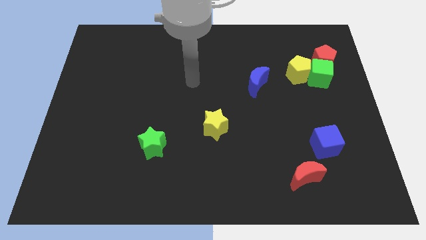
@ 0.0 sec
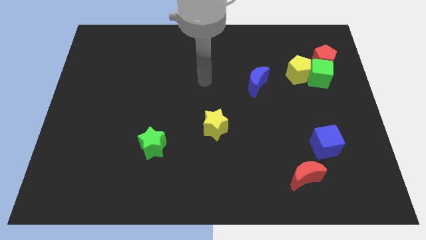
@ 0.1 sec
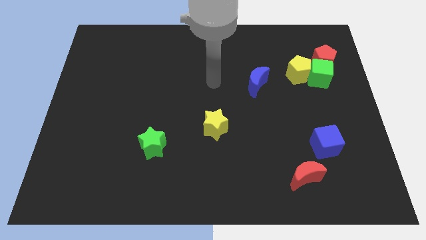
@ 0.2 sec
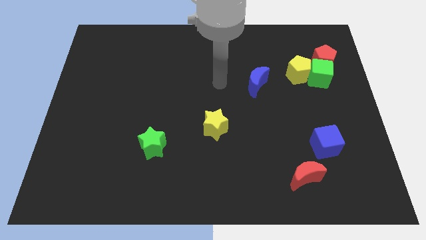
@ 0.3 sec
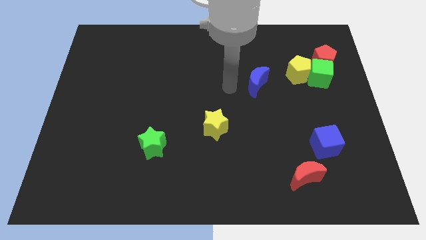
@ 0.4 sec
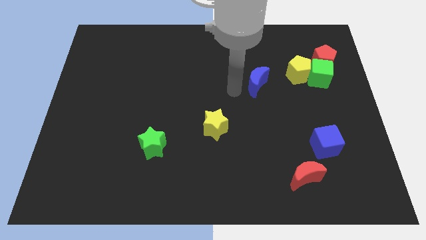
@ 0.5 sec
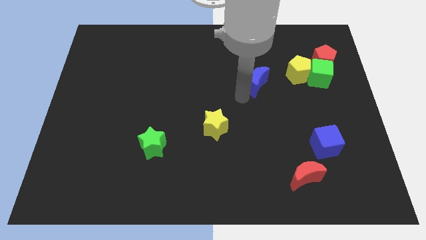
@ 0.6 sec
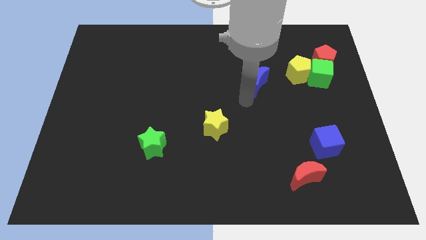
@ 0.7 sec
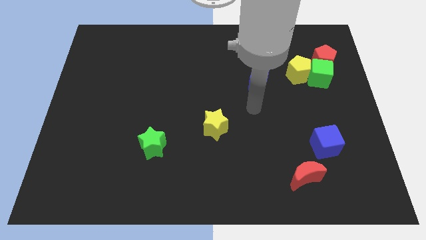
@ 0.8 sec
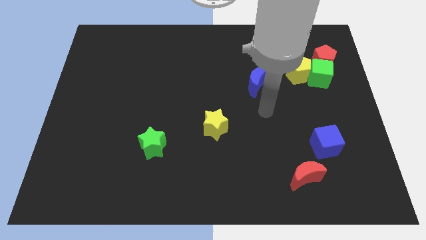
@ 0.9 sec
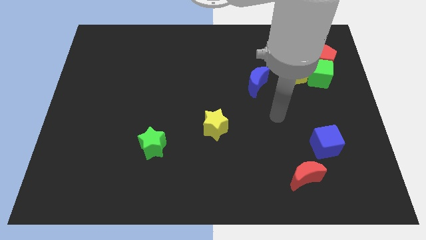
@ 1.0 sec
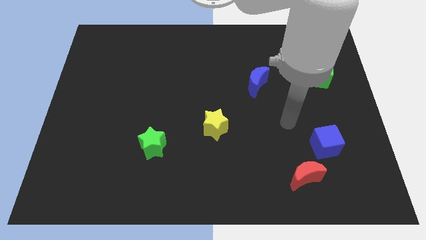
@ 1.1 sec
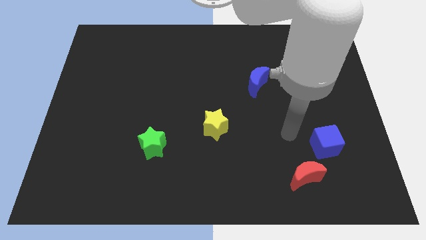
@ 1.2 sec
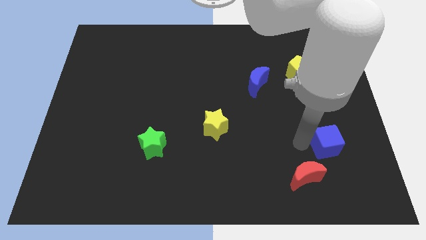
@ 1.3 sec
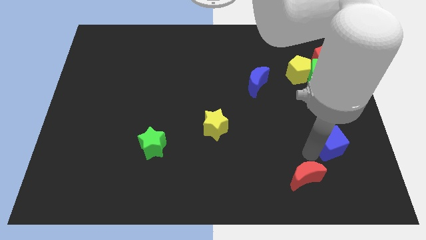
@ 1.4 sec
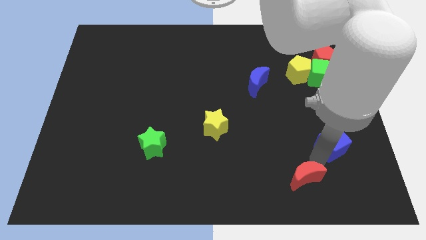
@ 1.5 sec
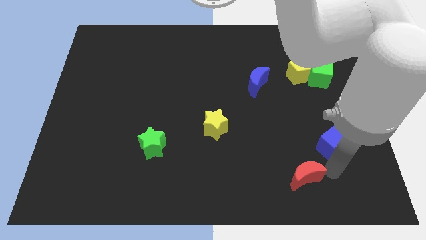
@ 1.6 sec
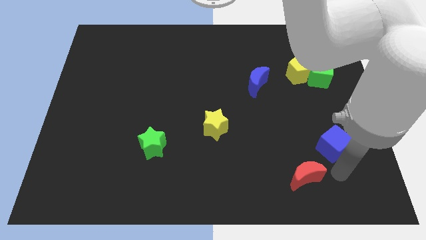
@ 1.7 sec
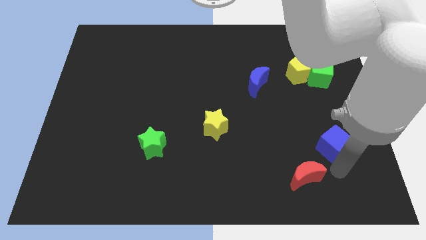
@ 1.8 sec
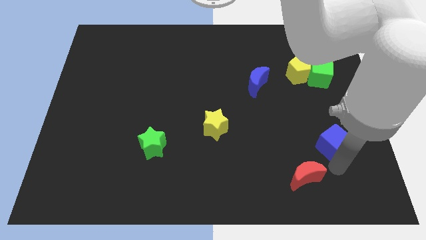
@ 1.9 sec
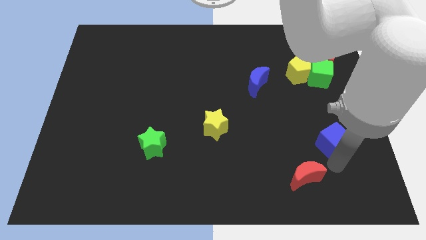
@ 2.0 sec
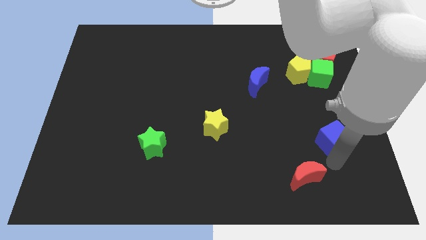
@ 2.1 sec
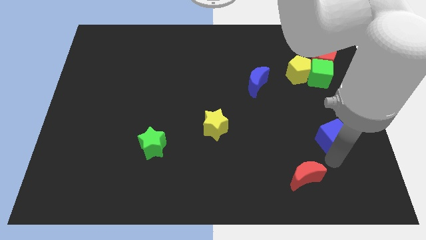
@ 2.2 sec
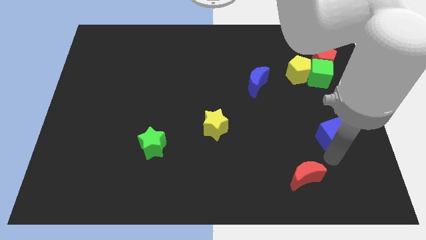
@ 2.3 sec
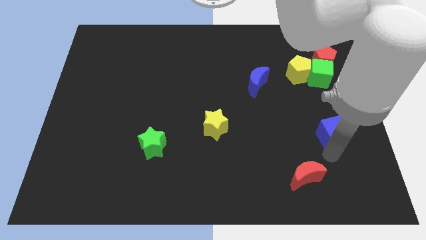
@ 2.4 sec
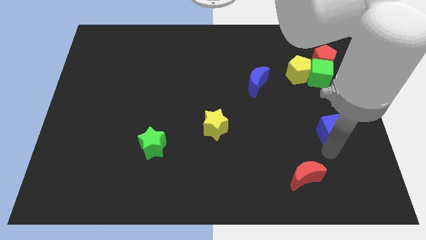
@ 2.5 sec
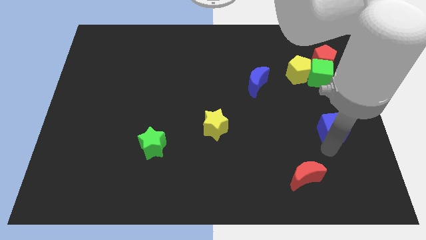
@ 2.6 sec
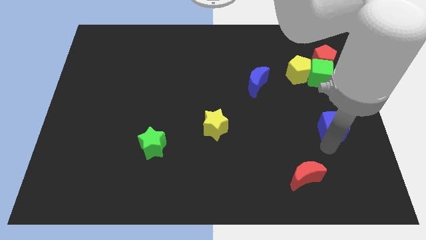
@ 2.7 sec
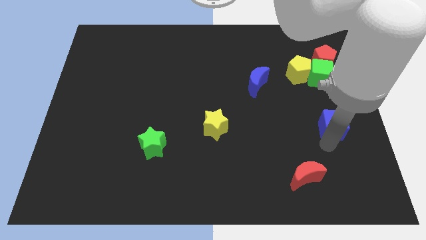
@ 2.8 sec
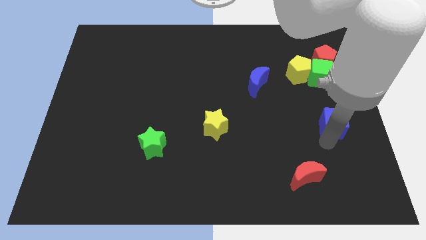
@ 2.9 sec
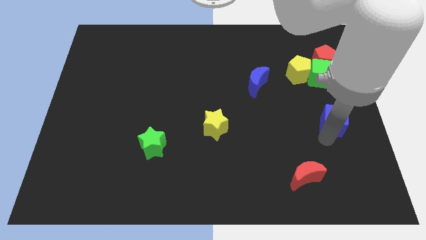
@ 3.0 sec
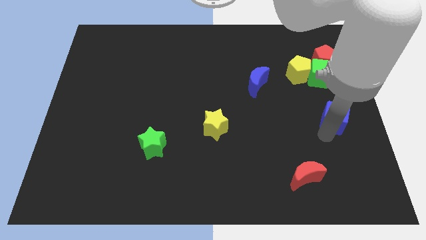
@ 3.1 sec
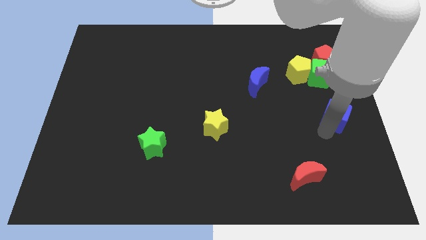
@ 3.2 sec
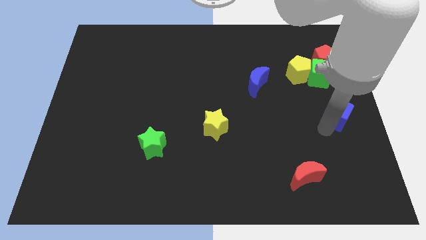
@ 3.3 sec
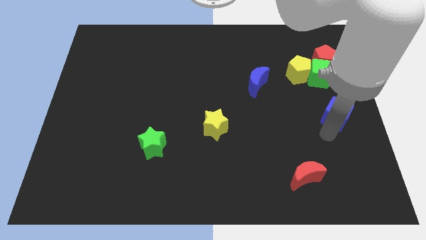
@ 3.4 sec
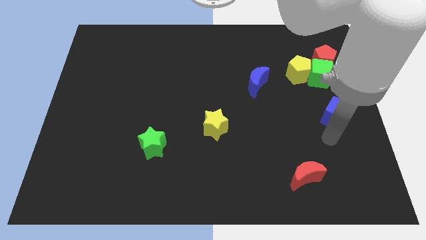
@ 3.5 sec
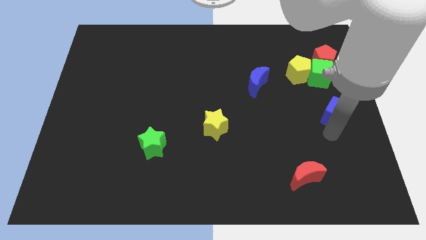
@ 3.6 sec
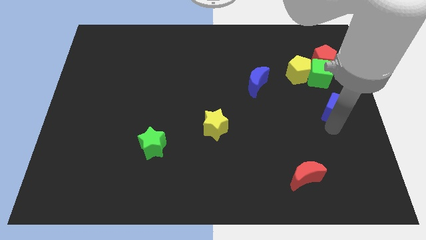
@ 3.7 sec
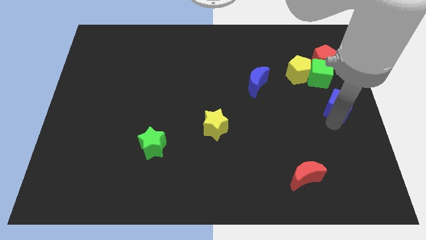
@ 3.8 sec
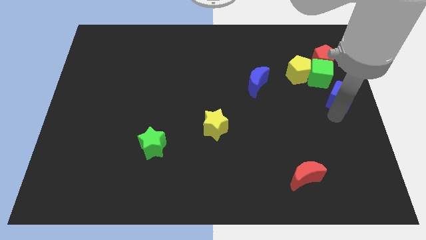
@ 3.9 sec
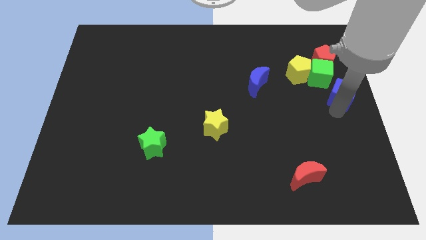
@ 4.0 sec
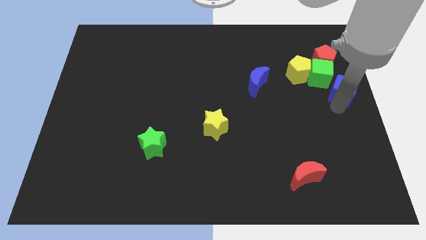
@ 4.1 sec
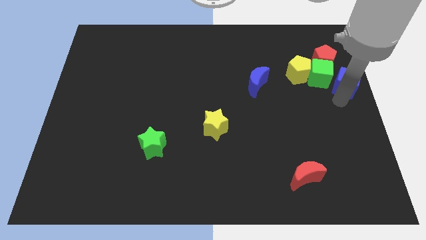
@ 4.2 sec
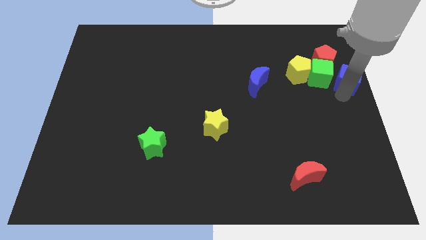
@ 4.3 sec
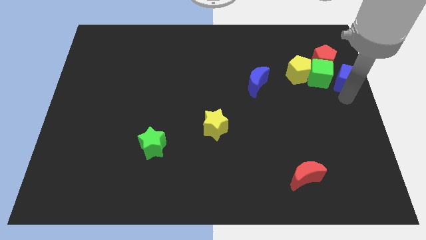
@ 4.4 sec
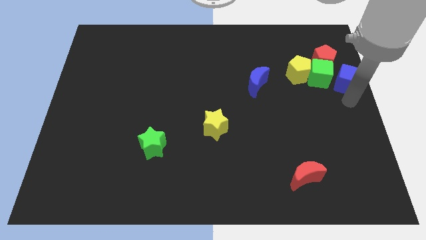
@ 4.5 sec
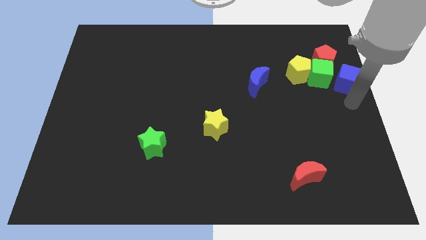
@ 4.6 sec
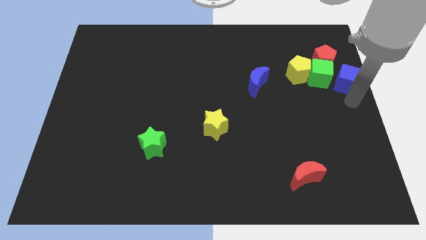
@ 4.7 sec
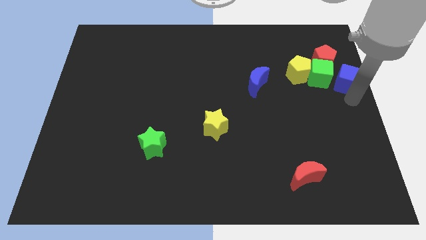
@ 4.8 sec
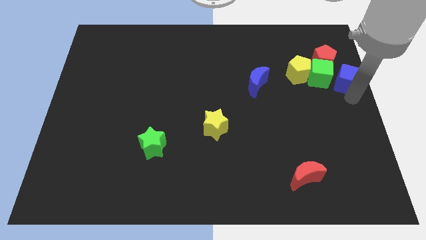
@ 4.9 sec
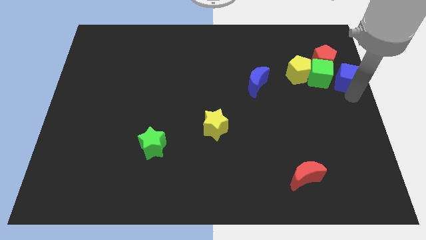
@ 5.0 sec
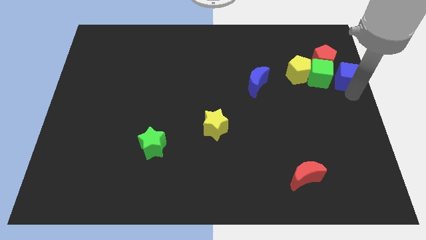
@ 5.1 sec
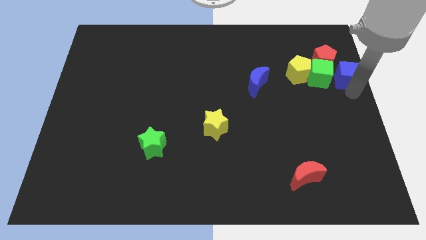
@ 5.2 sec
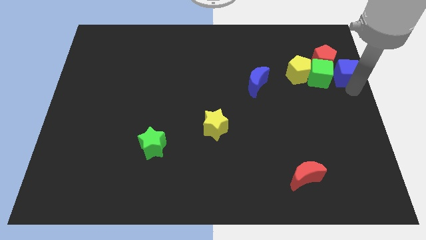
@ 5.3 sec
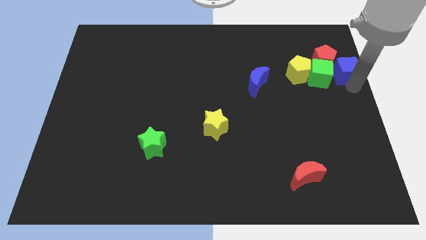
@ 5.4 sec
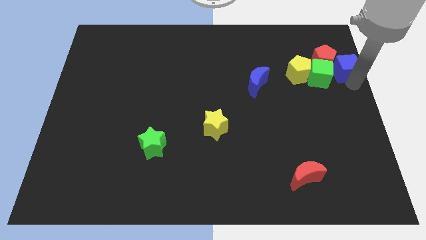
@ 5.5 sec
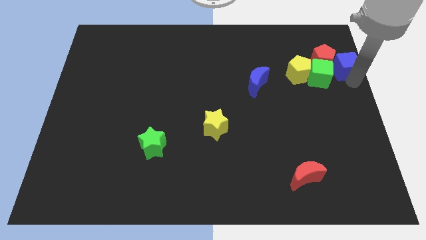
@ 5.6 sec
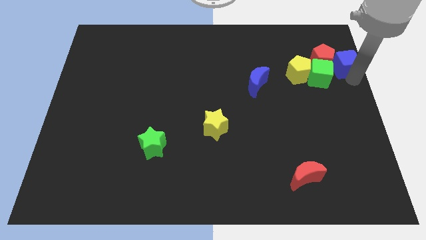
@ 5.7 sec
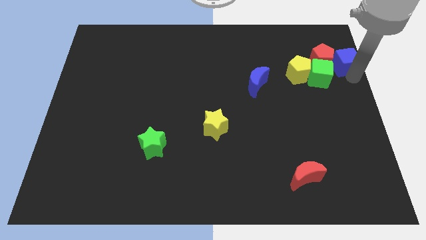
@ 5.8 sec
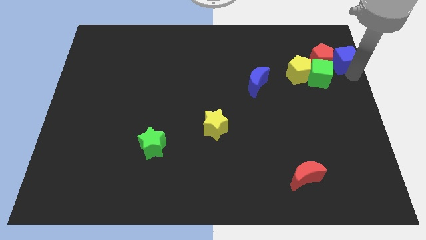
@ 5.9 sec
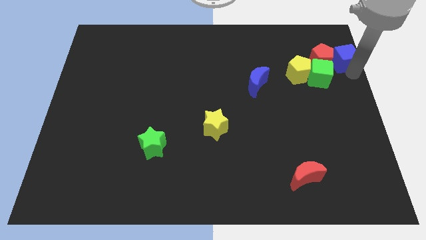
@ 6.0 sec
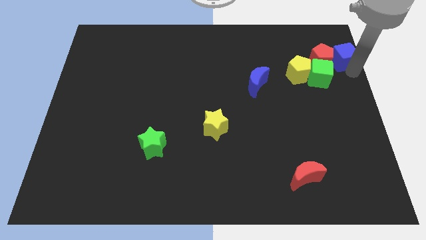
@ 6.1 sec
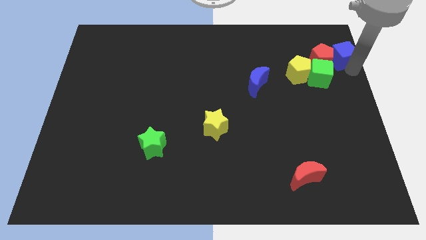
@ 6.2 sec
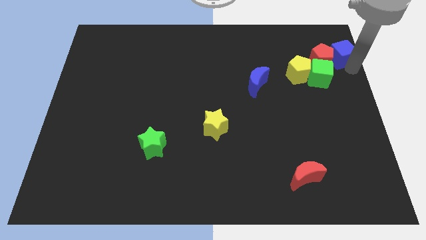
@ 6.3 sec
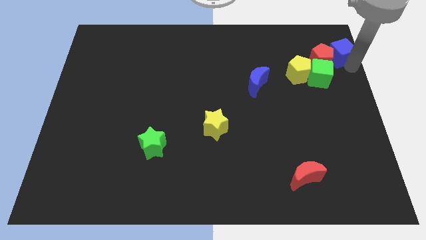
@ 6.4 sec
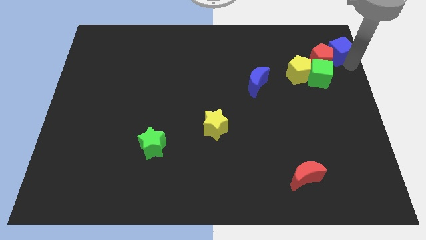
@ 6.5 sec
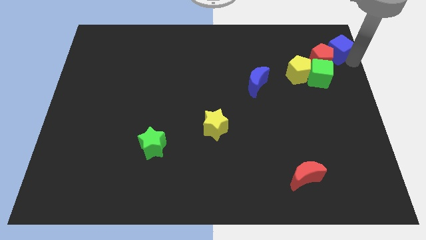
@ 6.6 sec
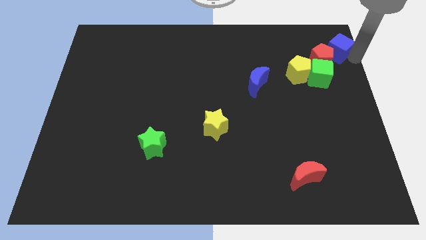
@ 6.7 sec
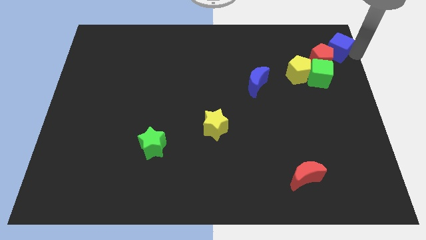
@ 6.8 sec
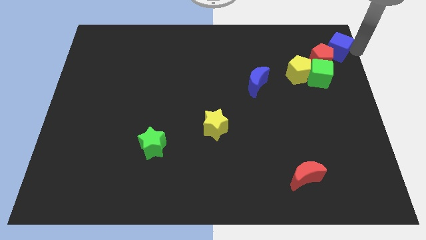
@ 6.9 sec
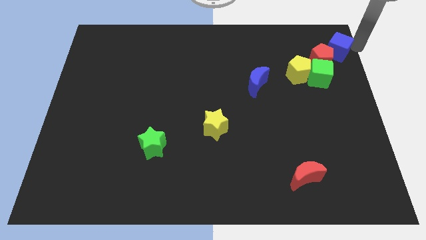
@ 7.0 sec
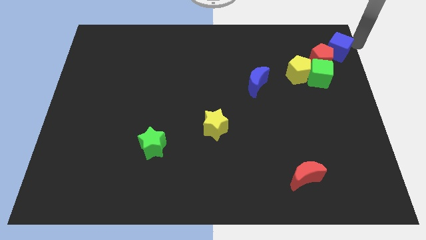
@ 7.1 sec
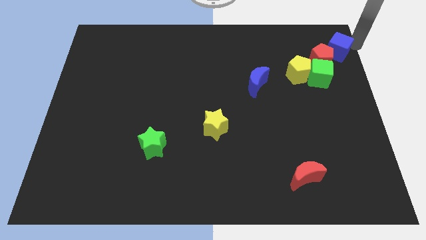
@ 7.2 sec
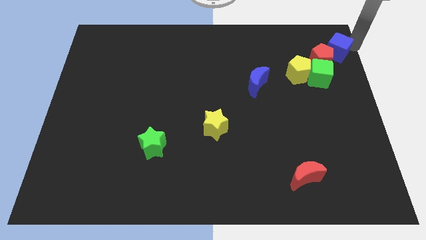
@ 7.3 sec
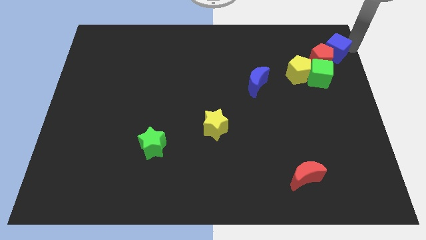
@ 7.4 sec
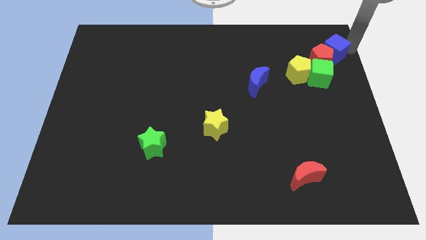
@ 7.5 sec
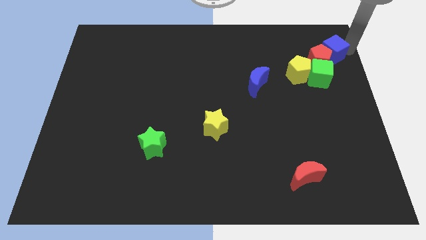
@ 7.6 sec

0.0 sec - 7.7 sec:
move the blue cube to the top right side of the yellow pentagon
